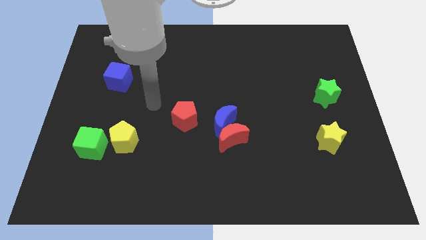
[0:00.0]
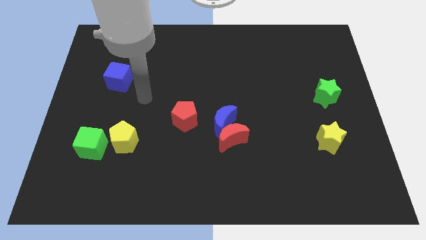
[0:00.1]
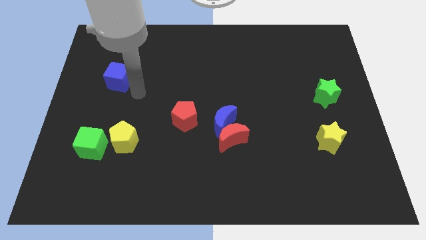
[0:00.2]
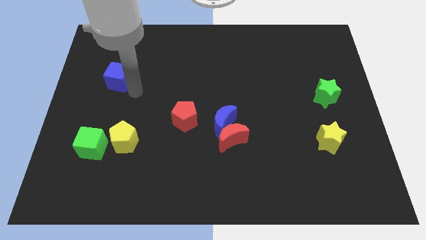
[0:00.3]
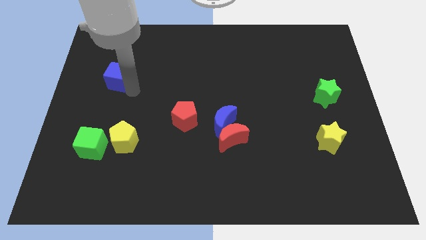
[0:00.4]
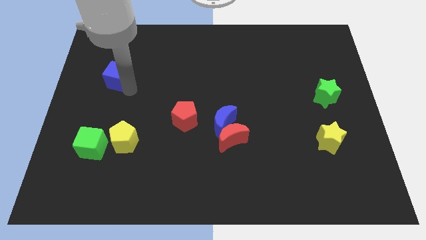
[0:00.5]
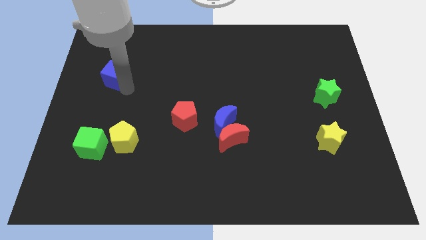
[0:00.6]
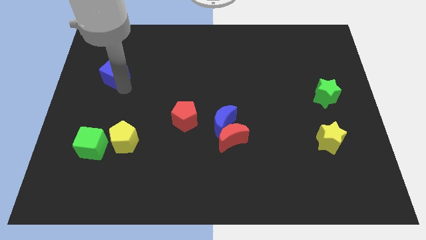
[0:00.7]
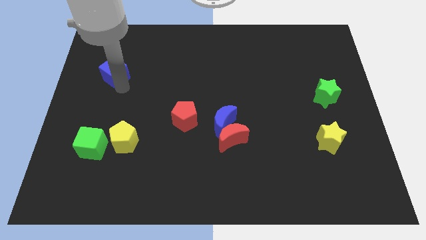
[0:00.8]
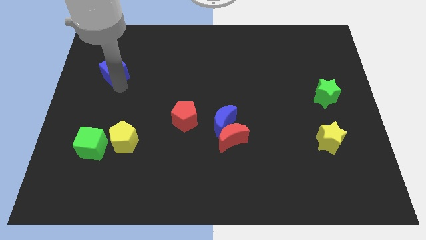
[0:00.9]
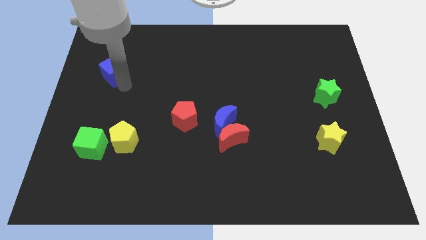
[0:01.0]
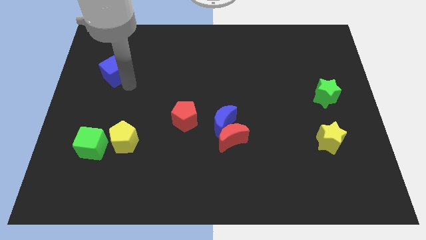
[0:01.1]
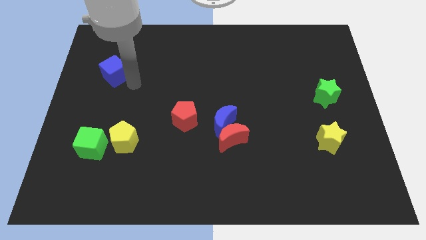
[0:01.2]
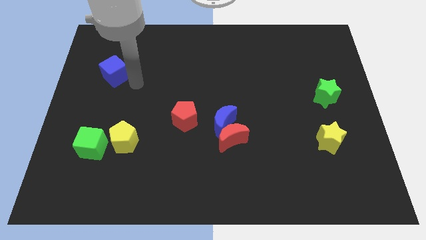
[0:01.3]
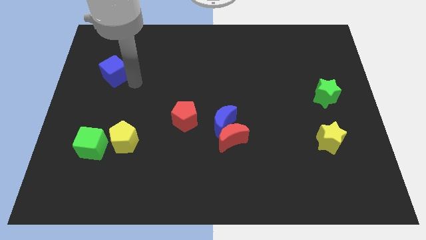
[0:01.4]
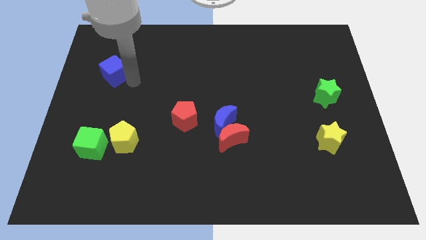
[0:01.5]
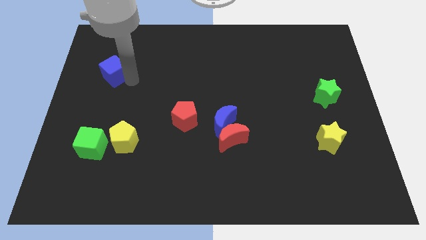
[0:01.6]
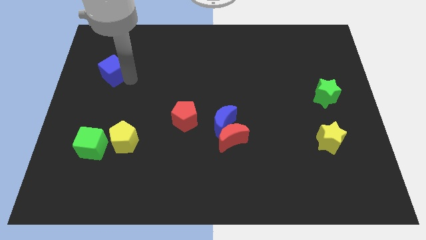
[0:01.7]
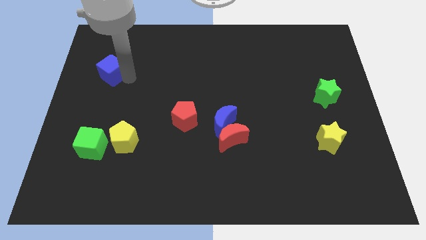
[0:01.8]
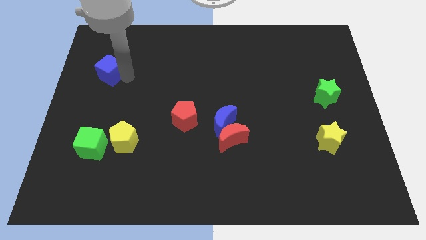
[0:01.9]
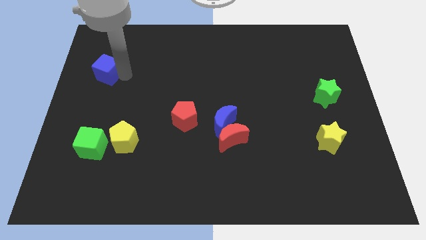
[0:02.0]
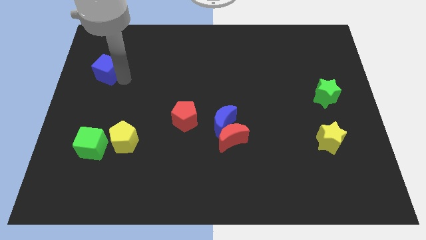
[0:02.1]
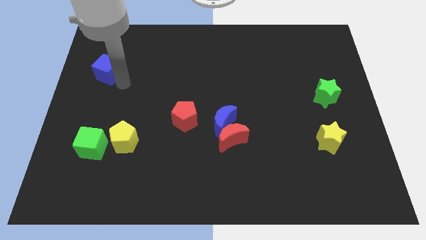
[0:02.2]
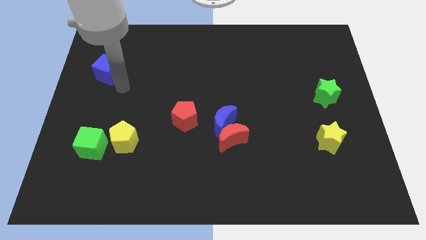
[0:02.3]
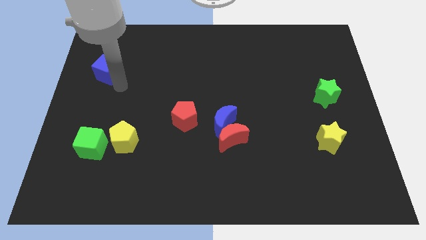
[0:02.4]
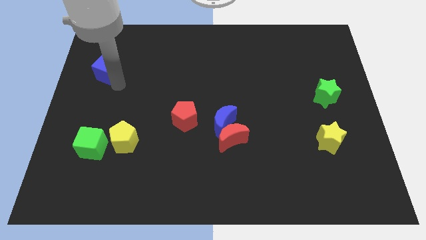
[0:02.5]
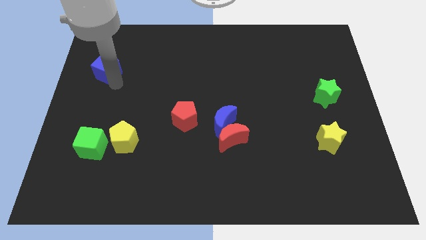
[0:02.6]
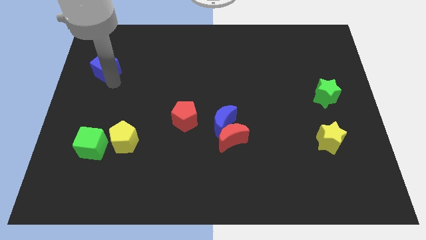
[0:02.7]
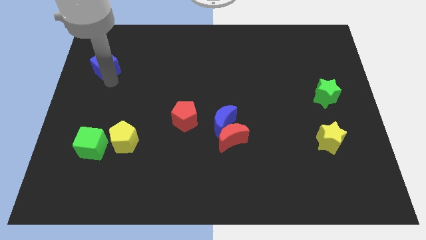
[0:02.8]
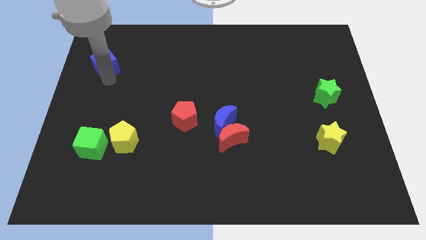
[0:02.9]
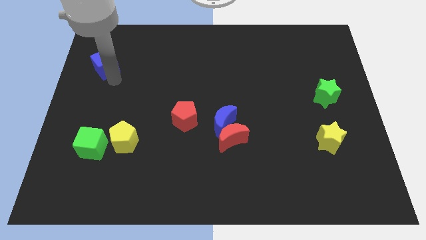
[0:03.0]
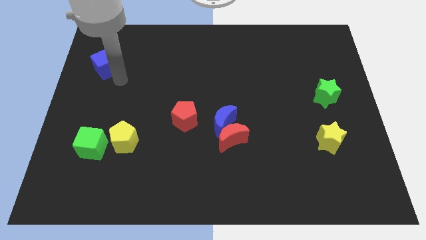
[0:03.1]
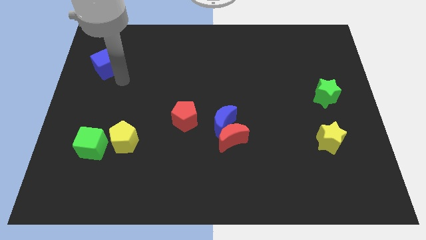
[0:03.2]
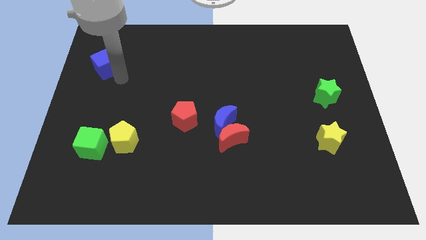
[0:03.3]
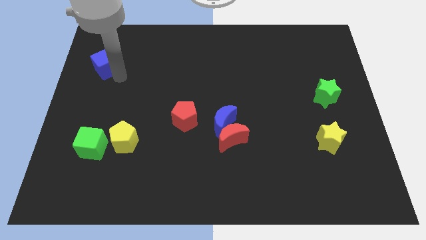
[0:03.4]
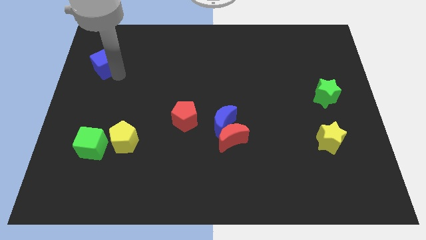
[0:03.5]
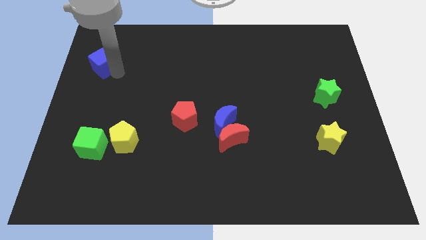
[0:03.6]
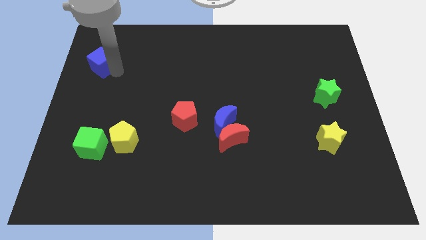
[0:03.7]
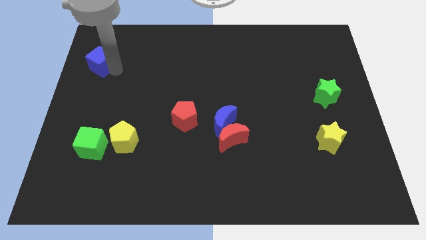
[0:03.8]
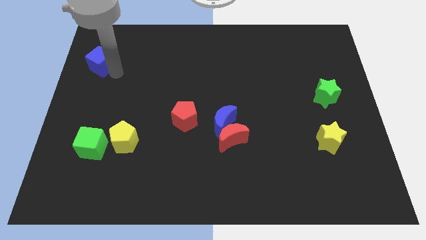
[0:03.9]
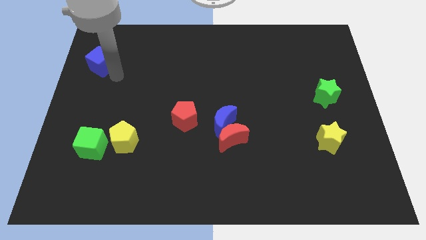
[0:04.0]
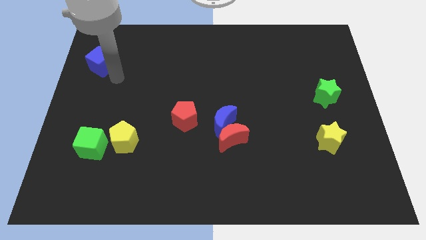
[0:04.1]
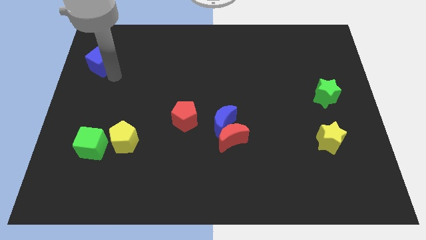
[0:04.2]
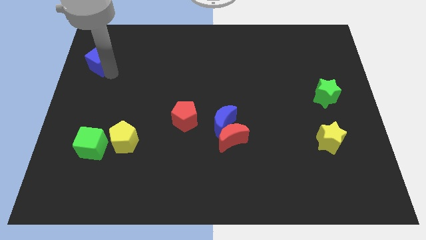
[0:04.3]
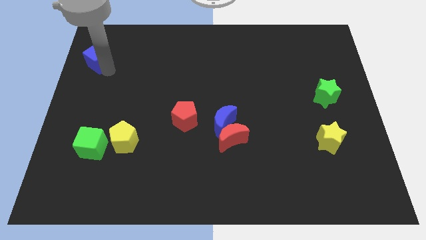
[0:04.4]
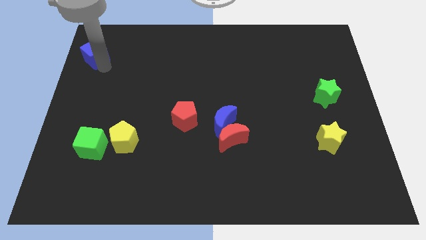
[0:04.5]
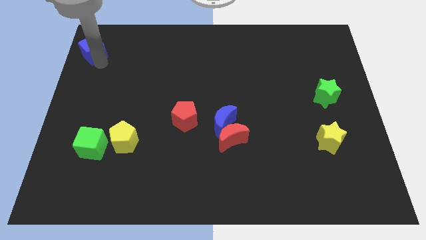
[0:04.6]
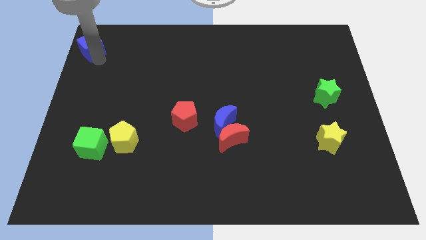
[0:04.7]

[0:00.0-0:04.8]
put the blue cube to the top left corner

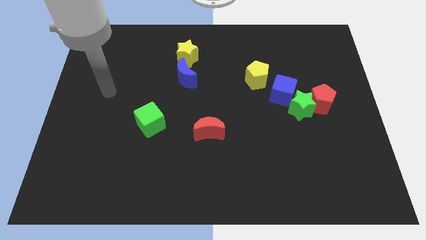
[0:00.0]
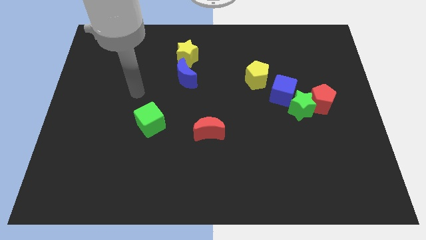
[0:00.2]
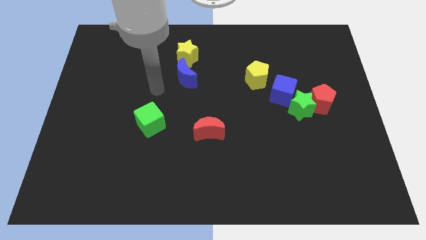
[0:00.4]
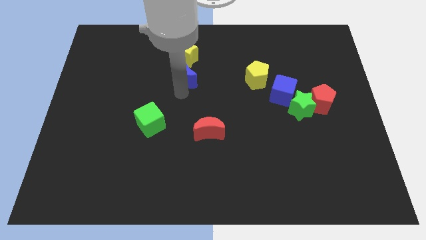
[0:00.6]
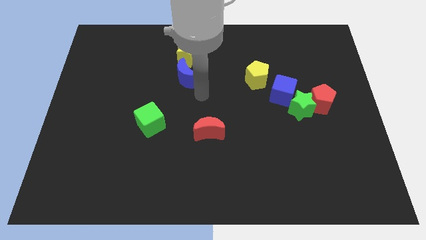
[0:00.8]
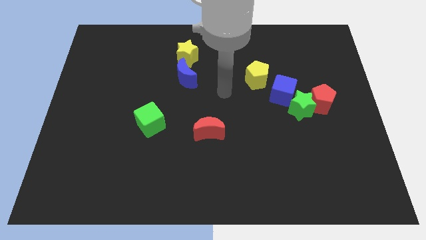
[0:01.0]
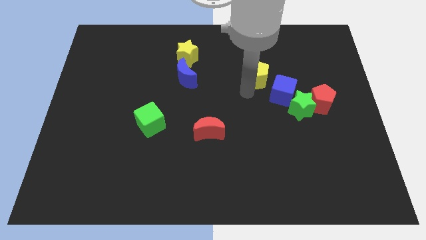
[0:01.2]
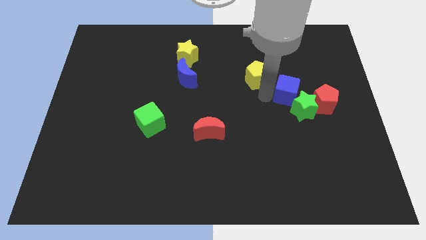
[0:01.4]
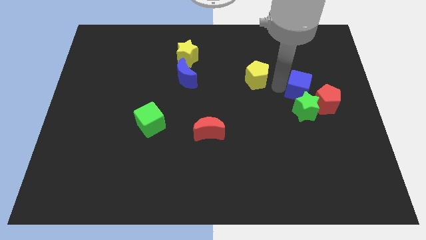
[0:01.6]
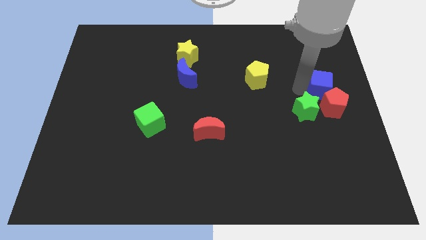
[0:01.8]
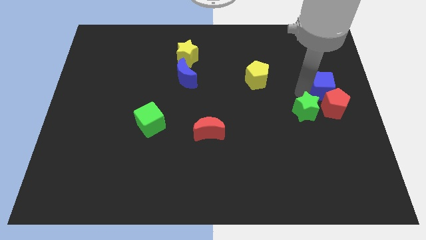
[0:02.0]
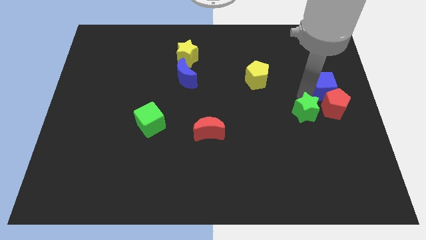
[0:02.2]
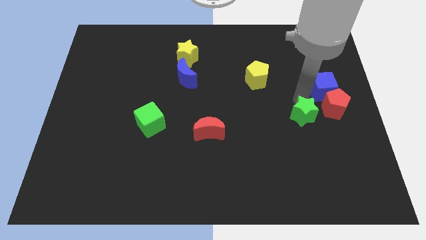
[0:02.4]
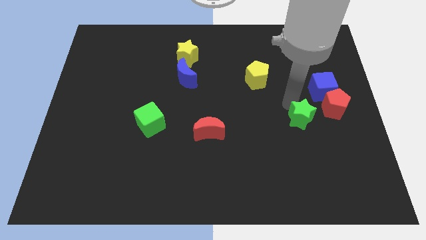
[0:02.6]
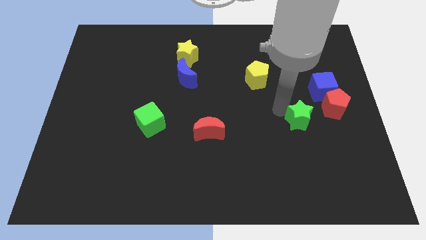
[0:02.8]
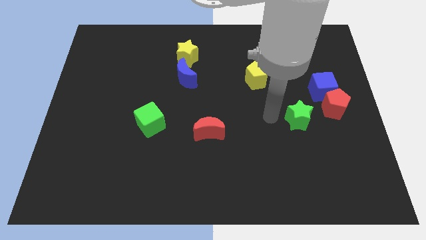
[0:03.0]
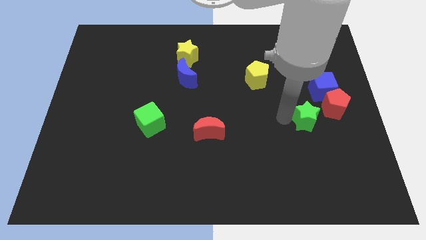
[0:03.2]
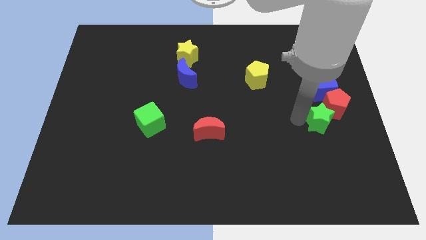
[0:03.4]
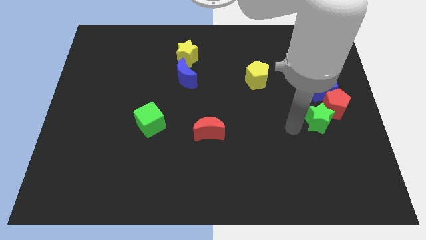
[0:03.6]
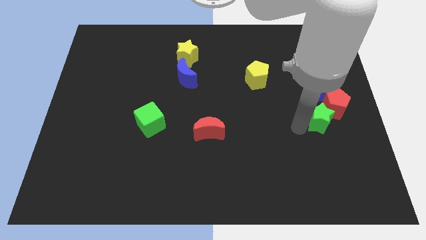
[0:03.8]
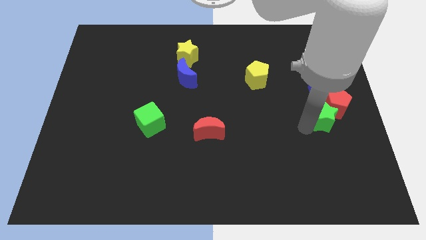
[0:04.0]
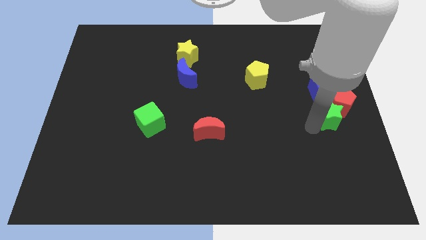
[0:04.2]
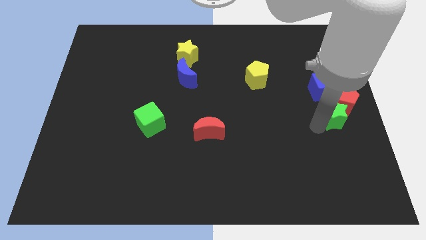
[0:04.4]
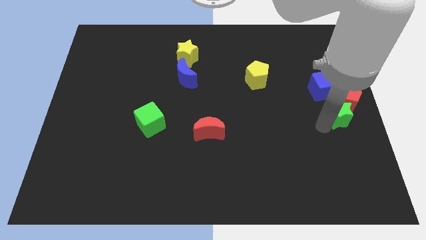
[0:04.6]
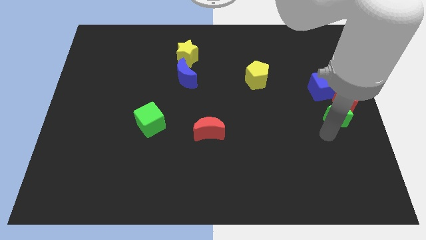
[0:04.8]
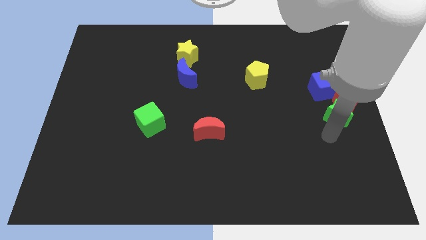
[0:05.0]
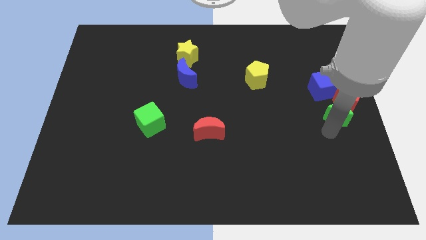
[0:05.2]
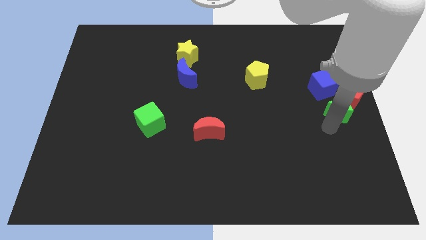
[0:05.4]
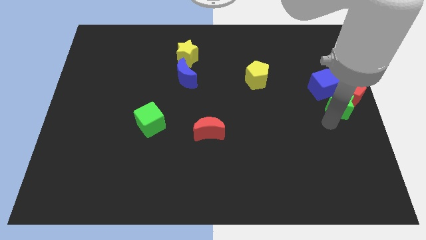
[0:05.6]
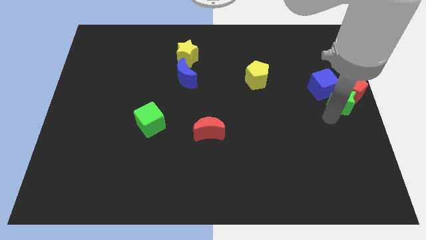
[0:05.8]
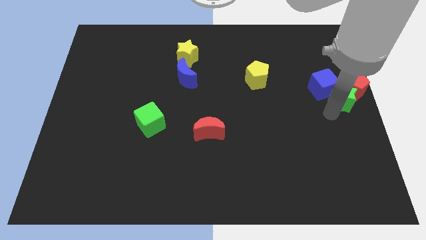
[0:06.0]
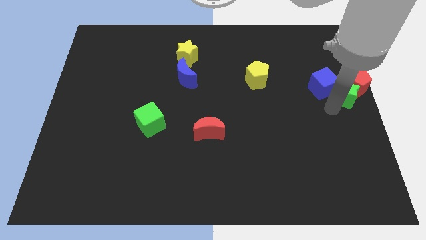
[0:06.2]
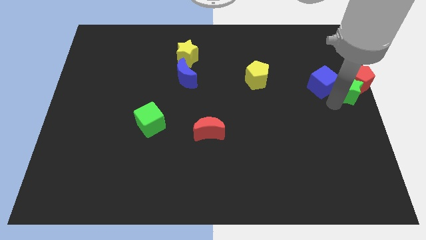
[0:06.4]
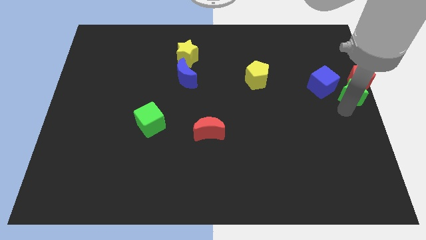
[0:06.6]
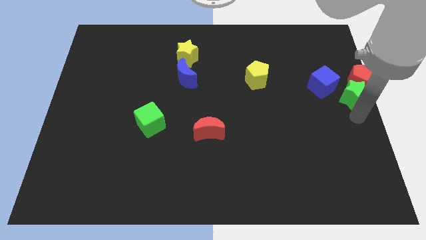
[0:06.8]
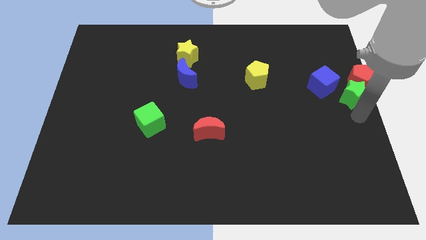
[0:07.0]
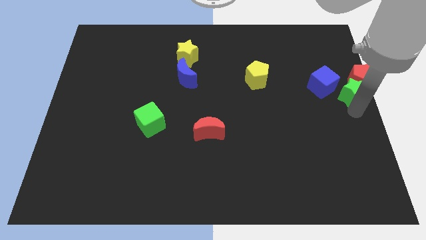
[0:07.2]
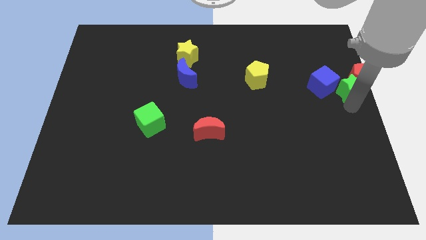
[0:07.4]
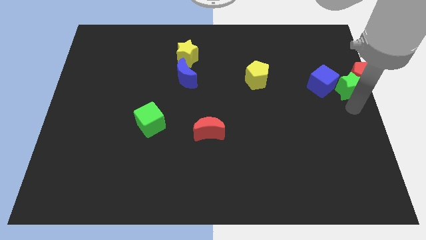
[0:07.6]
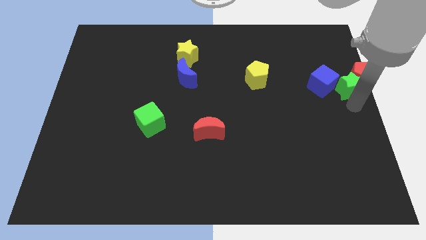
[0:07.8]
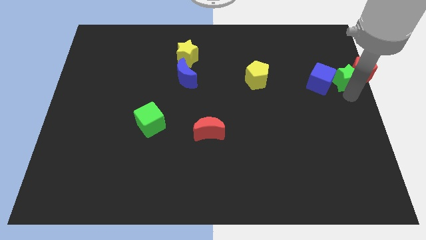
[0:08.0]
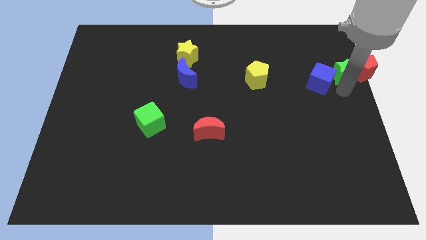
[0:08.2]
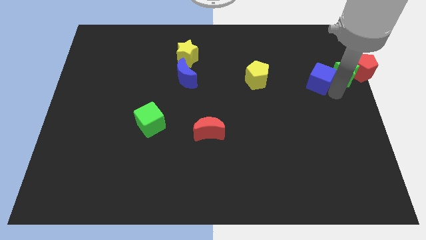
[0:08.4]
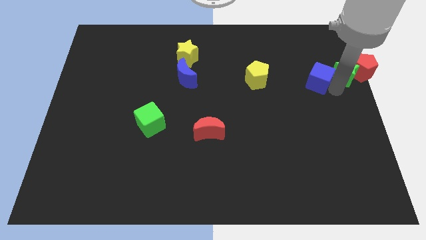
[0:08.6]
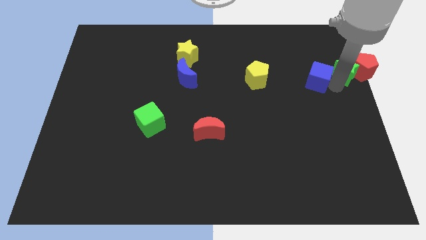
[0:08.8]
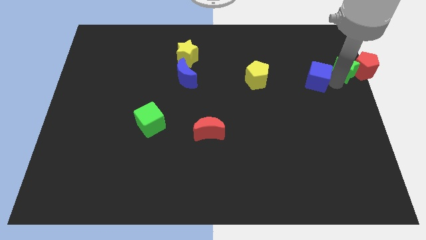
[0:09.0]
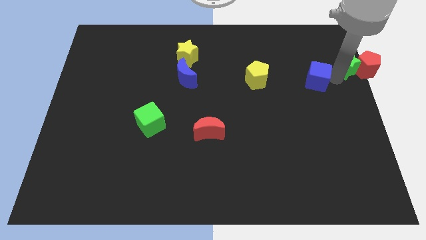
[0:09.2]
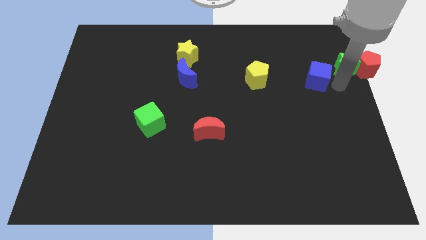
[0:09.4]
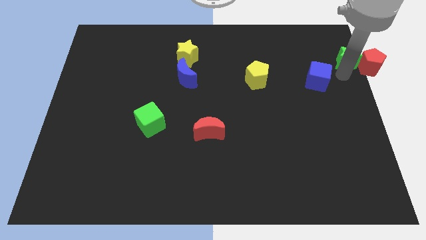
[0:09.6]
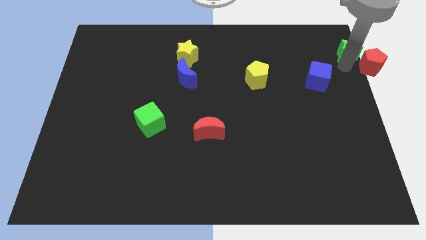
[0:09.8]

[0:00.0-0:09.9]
move the green star to the top right corner
